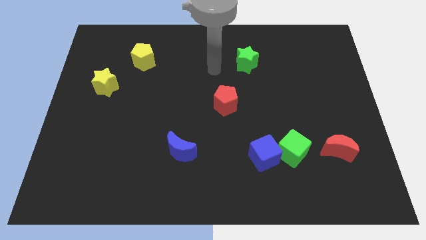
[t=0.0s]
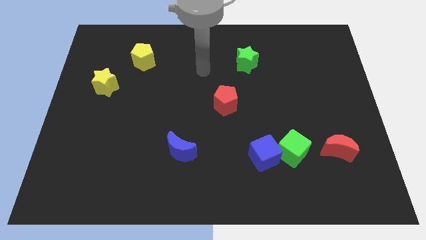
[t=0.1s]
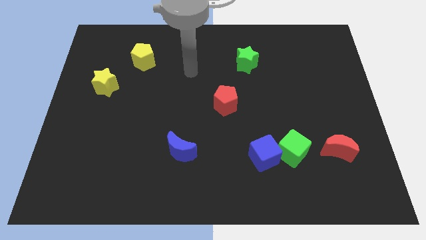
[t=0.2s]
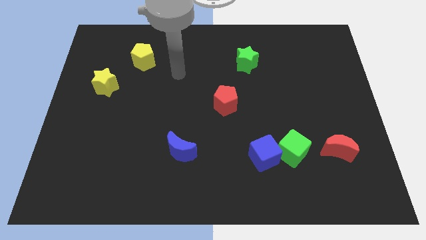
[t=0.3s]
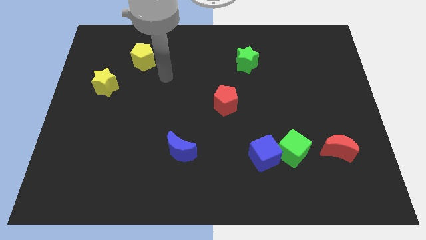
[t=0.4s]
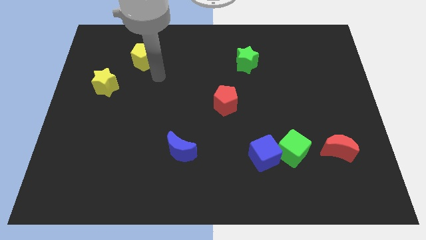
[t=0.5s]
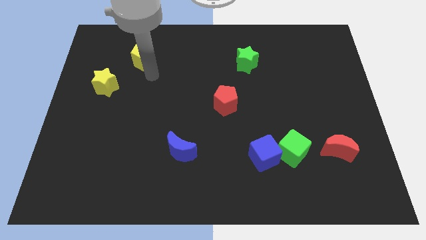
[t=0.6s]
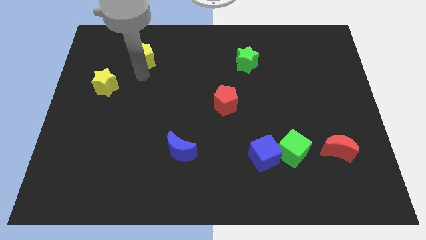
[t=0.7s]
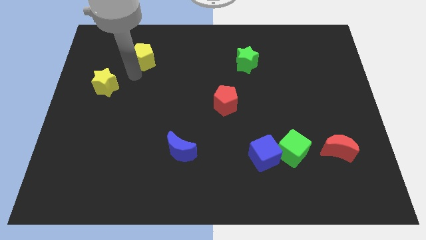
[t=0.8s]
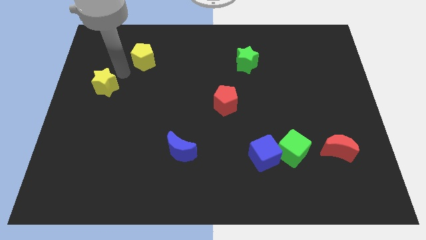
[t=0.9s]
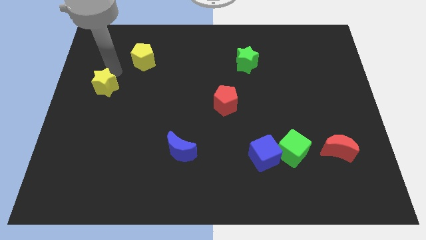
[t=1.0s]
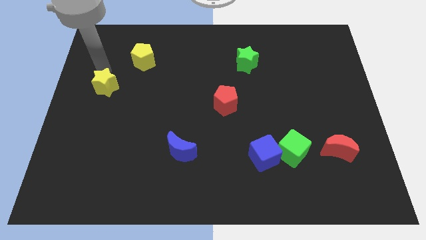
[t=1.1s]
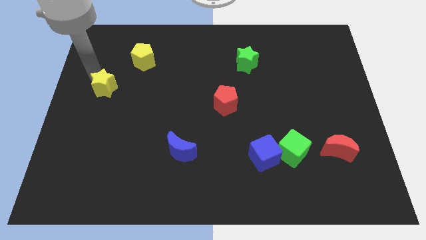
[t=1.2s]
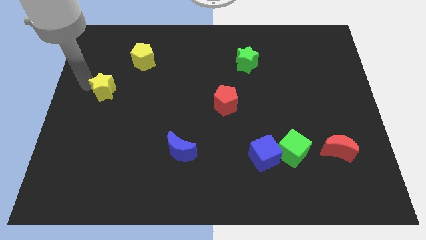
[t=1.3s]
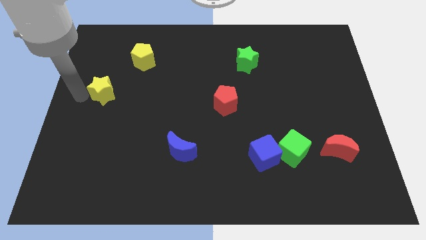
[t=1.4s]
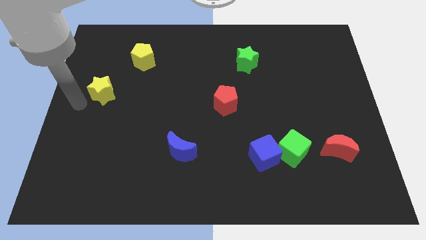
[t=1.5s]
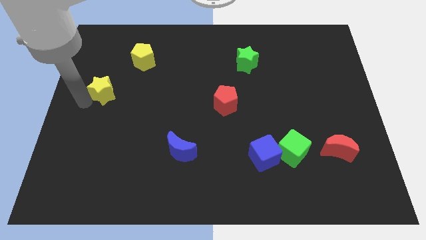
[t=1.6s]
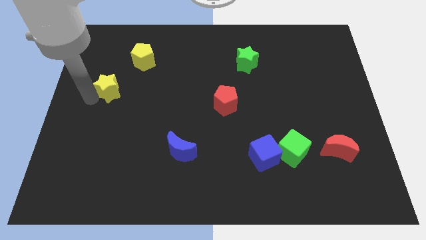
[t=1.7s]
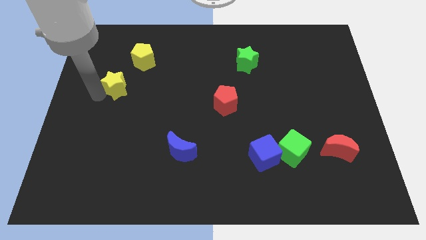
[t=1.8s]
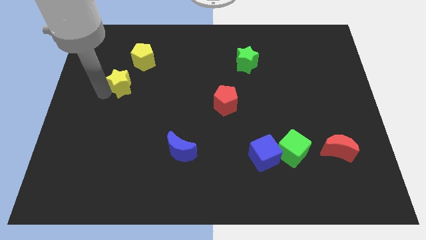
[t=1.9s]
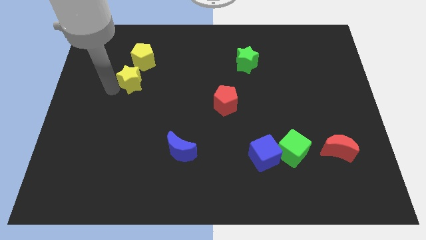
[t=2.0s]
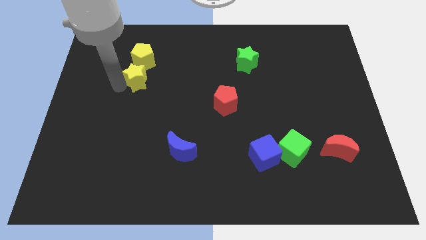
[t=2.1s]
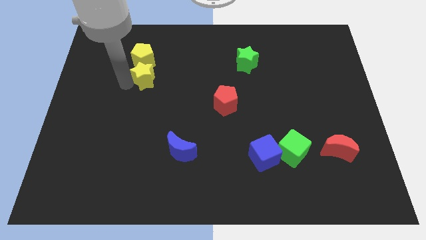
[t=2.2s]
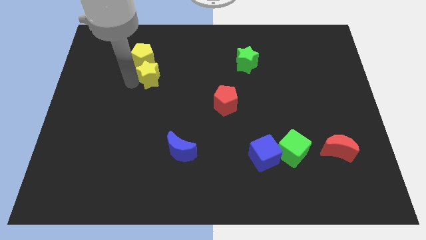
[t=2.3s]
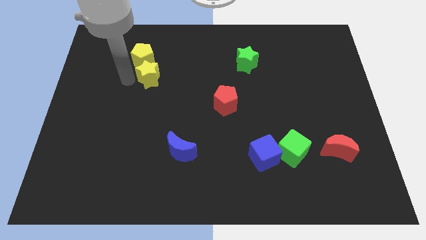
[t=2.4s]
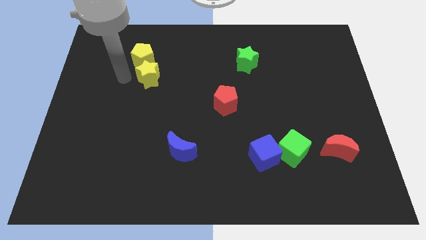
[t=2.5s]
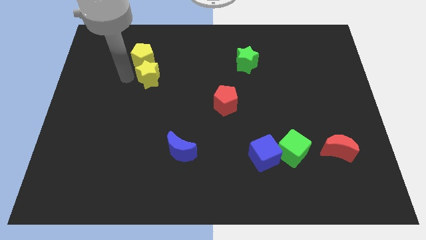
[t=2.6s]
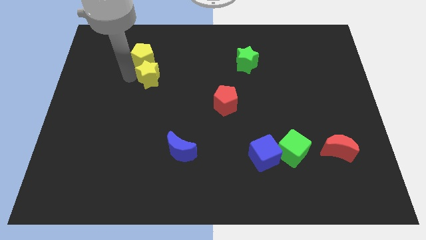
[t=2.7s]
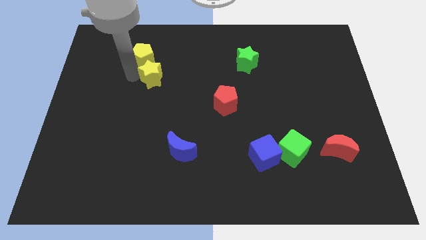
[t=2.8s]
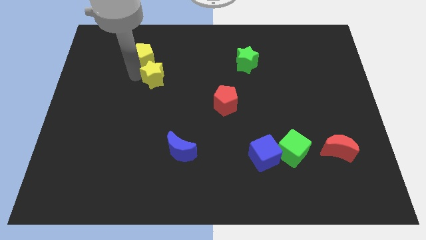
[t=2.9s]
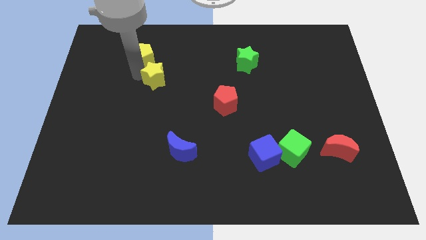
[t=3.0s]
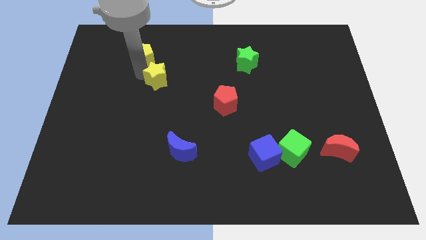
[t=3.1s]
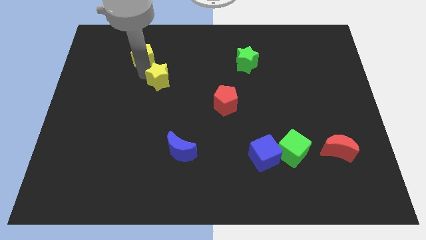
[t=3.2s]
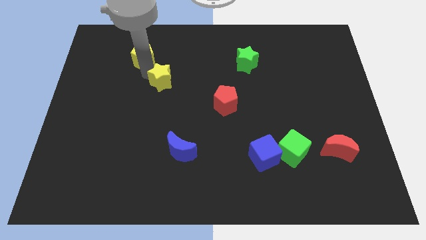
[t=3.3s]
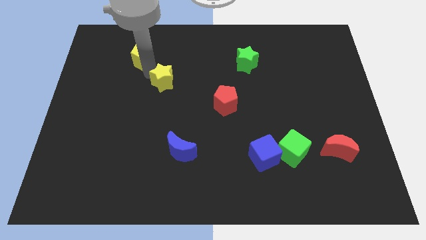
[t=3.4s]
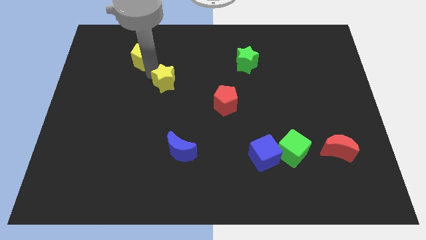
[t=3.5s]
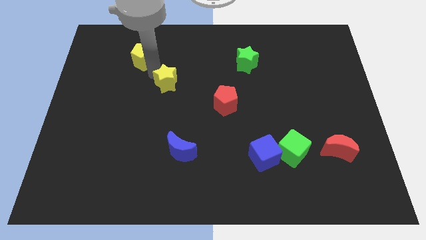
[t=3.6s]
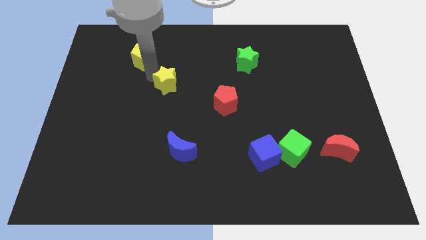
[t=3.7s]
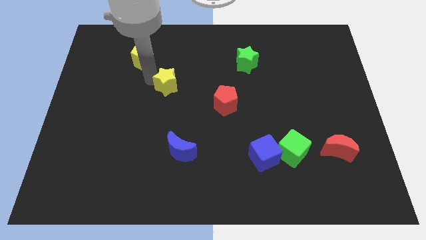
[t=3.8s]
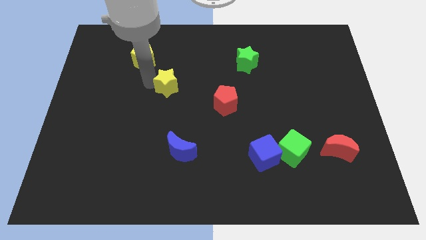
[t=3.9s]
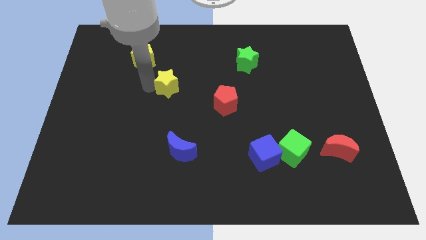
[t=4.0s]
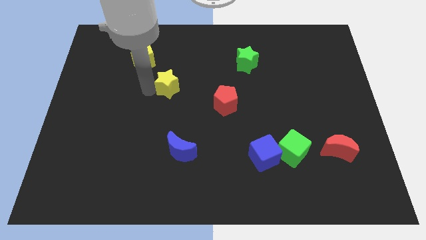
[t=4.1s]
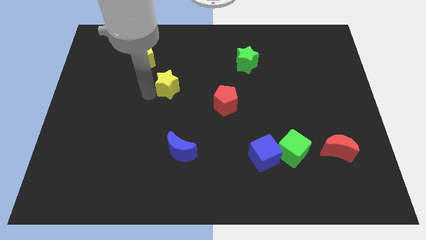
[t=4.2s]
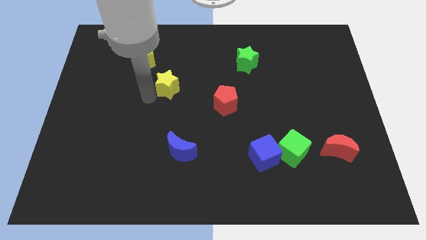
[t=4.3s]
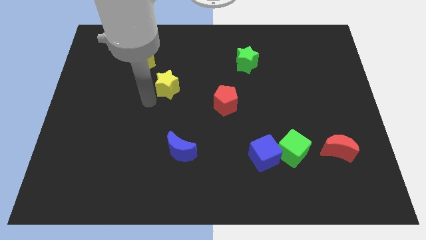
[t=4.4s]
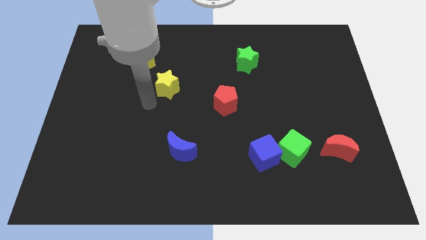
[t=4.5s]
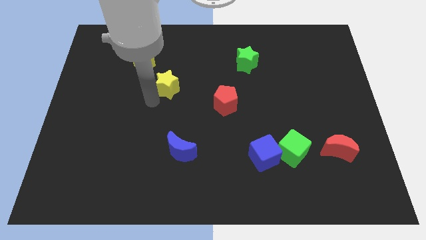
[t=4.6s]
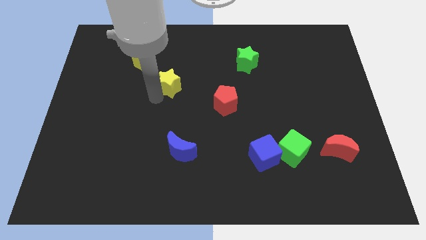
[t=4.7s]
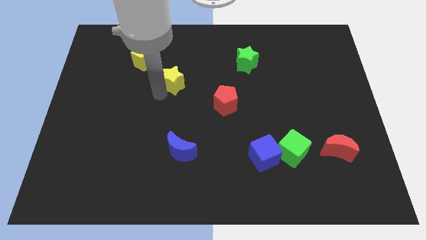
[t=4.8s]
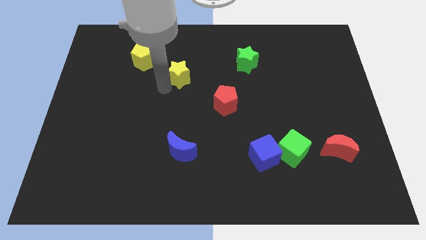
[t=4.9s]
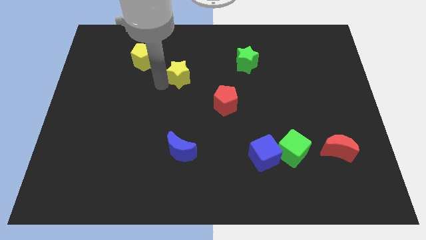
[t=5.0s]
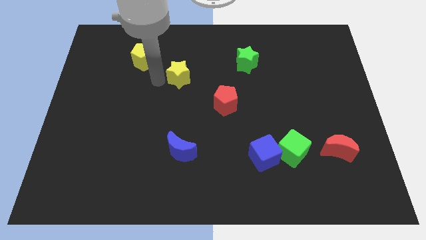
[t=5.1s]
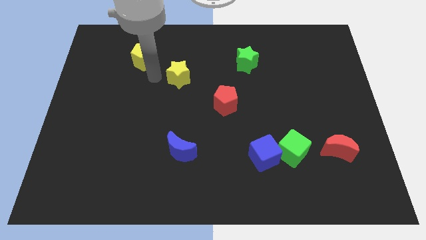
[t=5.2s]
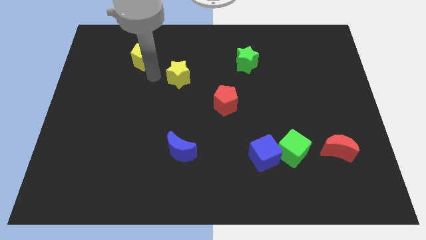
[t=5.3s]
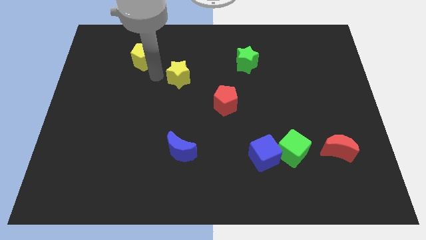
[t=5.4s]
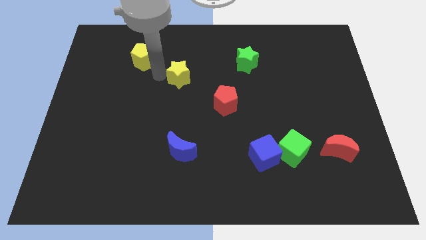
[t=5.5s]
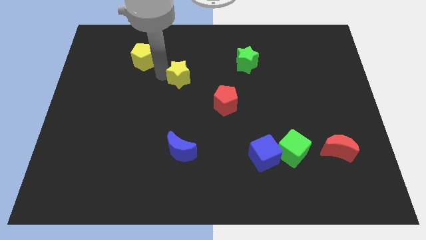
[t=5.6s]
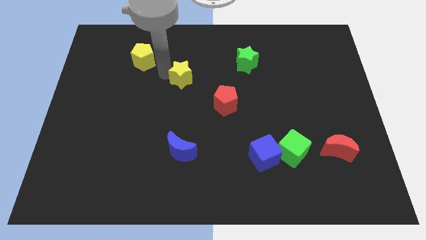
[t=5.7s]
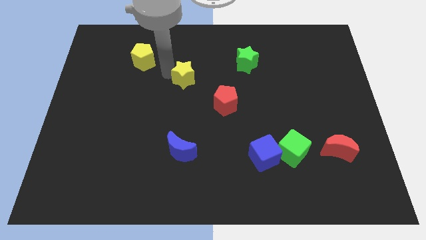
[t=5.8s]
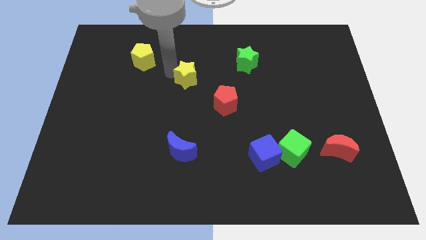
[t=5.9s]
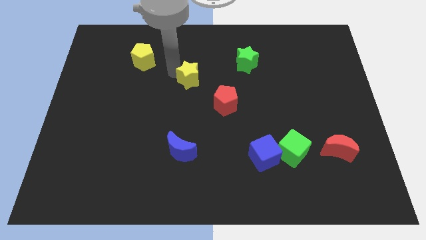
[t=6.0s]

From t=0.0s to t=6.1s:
move the yellow star to the right

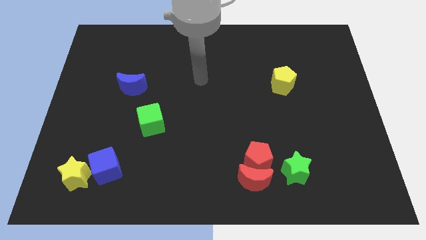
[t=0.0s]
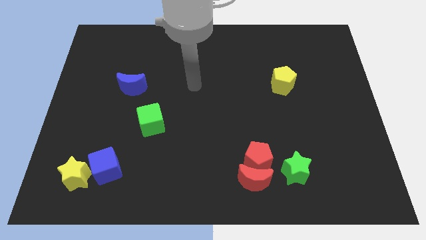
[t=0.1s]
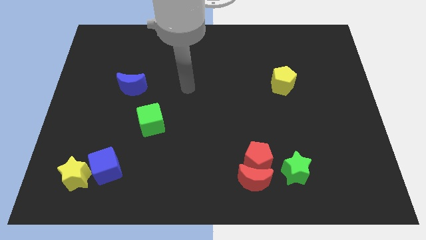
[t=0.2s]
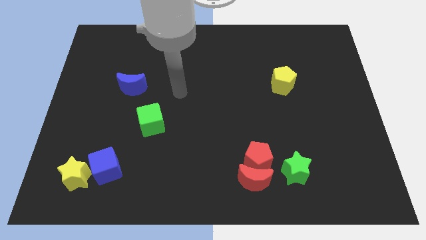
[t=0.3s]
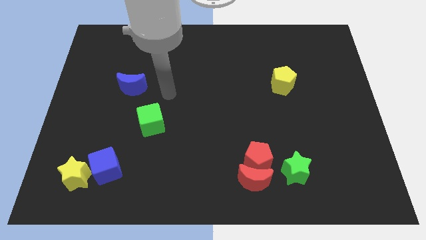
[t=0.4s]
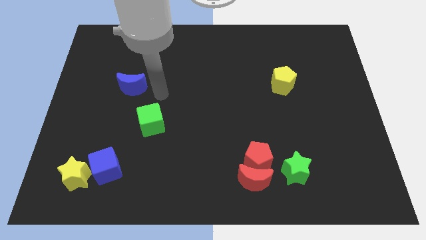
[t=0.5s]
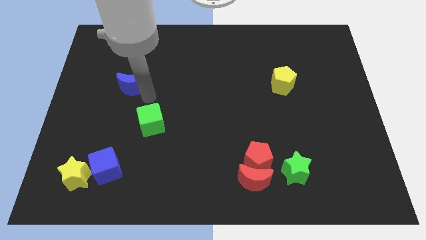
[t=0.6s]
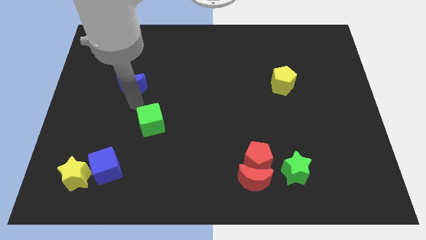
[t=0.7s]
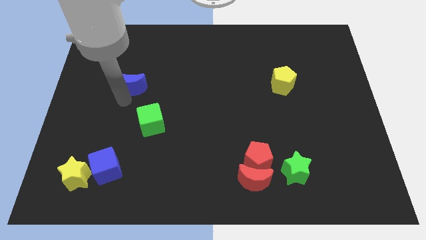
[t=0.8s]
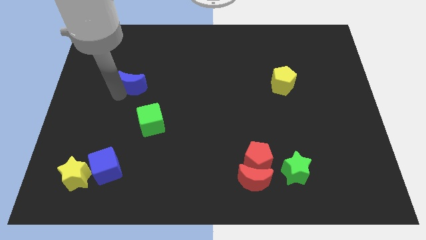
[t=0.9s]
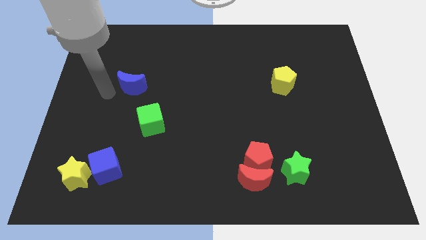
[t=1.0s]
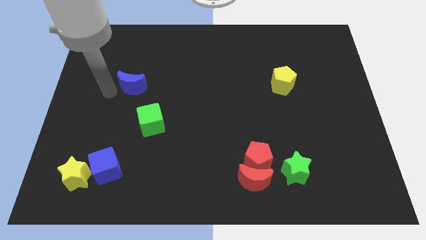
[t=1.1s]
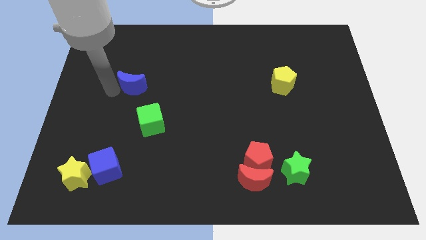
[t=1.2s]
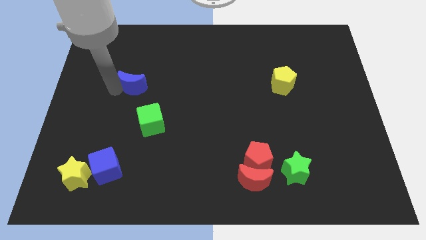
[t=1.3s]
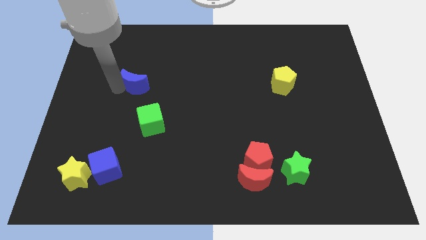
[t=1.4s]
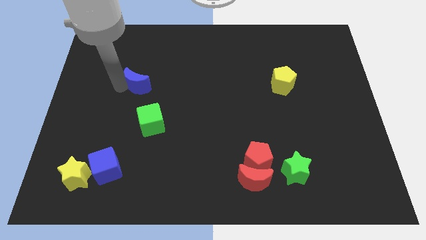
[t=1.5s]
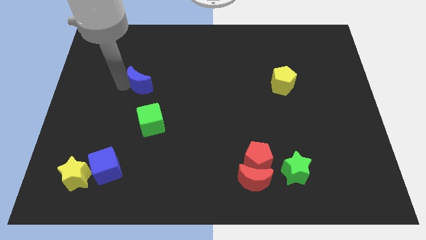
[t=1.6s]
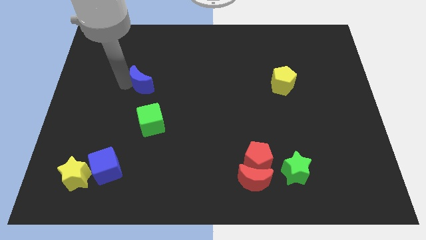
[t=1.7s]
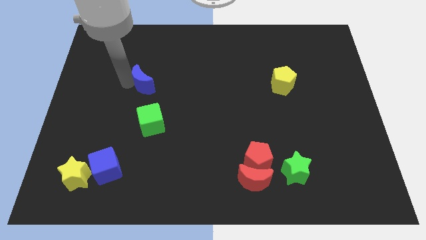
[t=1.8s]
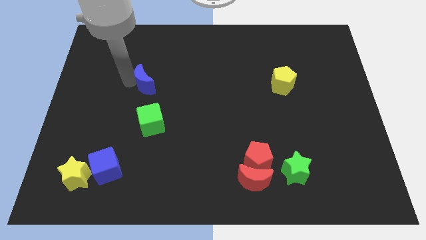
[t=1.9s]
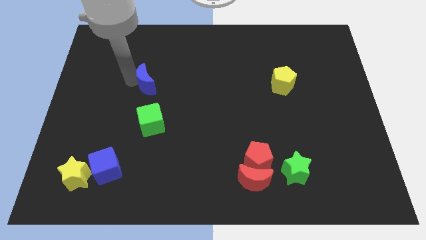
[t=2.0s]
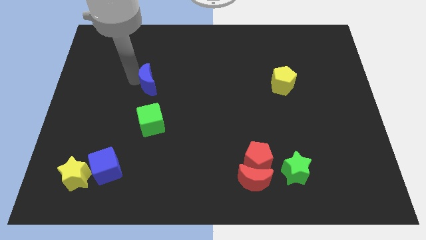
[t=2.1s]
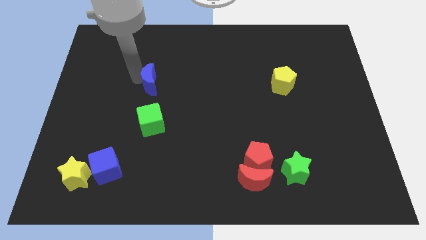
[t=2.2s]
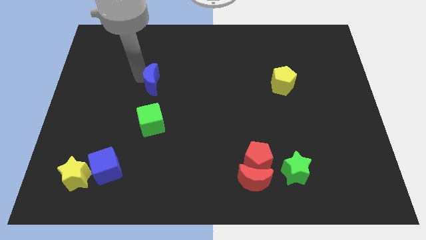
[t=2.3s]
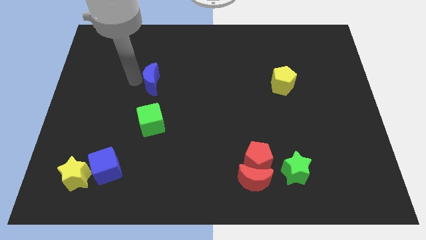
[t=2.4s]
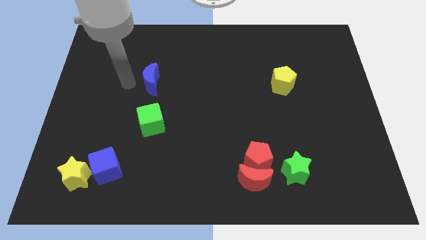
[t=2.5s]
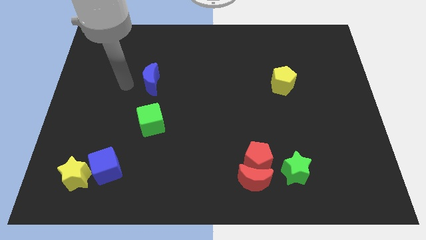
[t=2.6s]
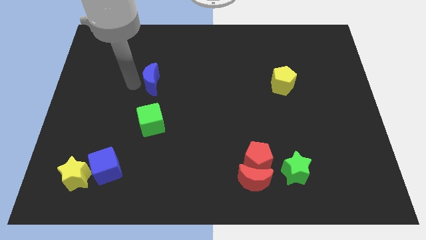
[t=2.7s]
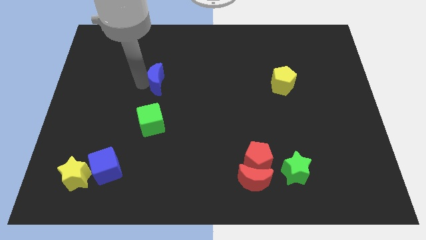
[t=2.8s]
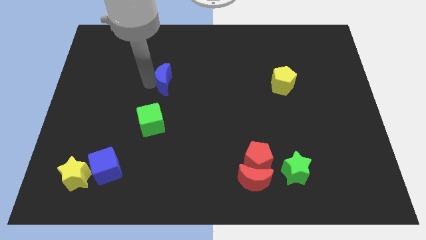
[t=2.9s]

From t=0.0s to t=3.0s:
move the blue moon a bit to the right
